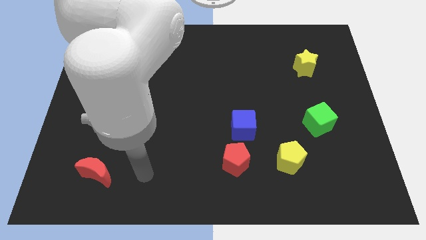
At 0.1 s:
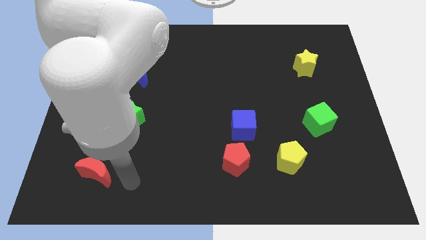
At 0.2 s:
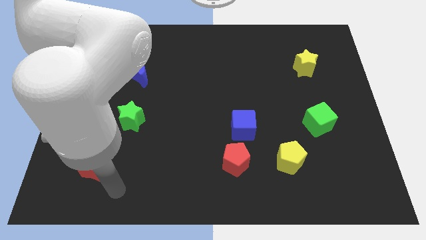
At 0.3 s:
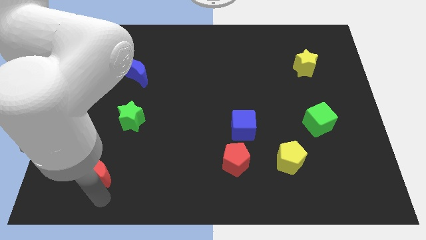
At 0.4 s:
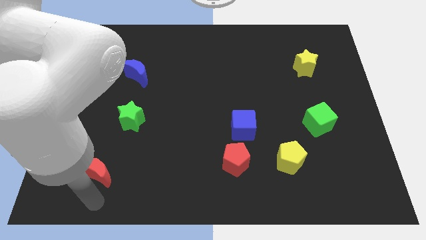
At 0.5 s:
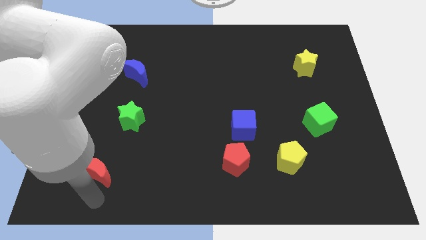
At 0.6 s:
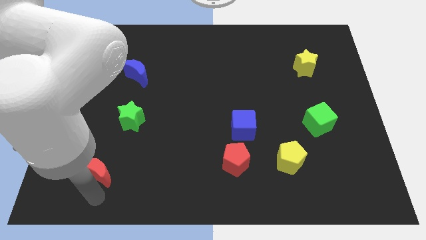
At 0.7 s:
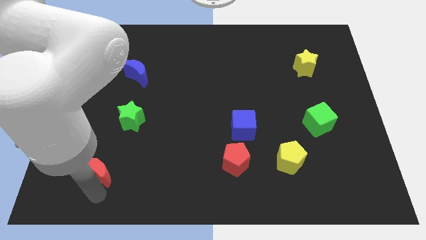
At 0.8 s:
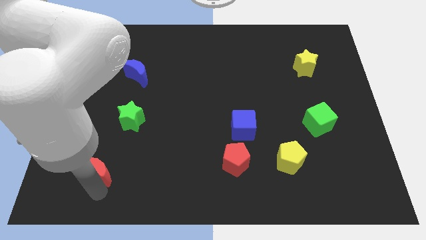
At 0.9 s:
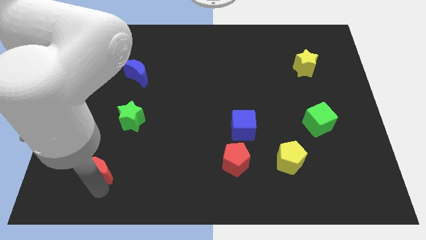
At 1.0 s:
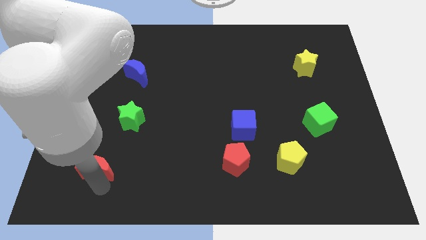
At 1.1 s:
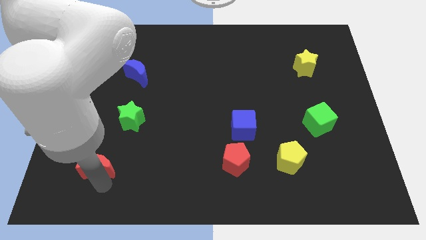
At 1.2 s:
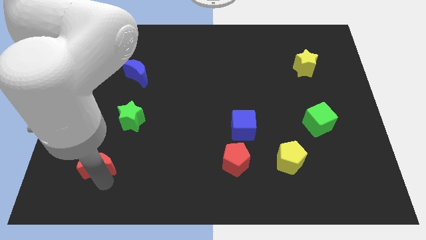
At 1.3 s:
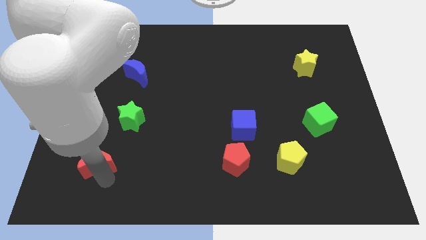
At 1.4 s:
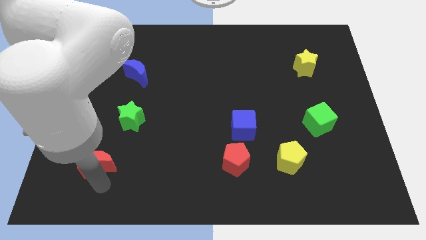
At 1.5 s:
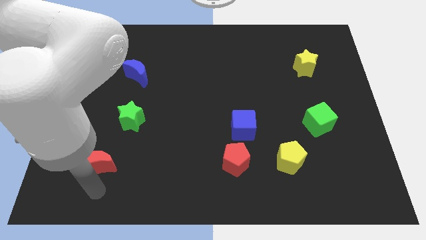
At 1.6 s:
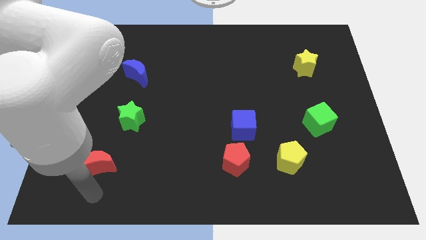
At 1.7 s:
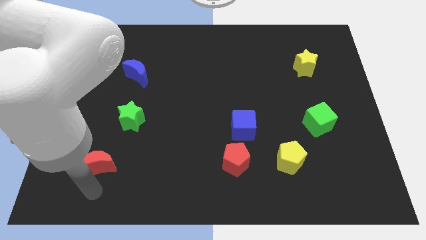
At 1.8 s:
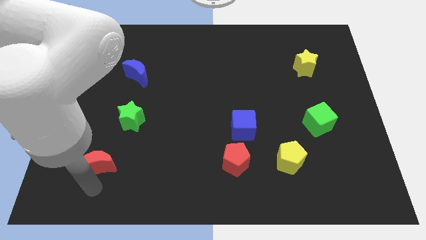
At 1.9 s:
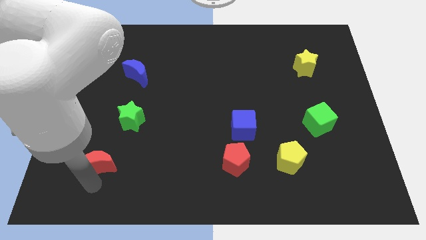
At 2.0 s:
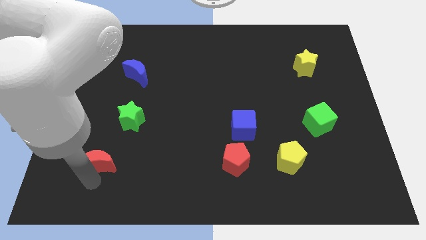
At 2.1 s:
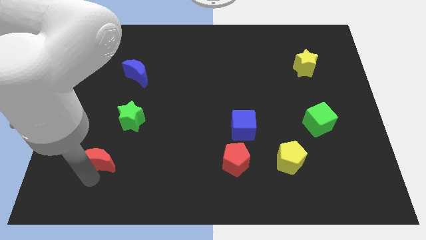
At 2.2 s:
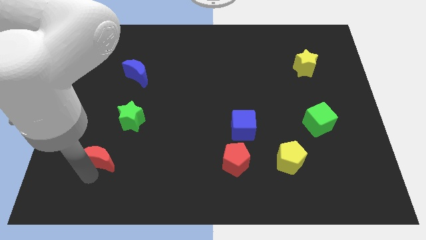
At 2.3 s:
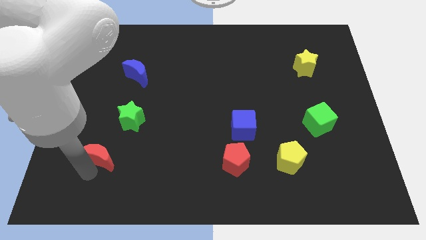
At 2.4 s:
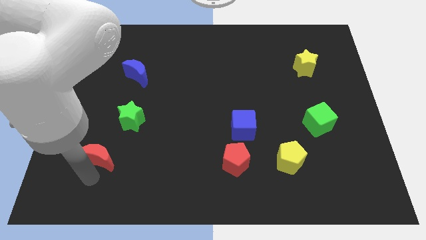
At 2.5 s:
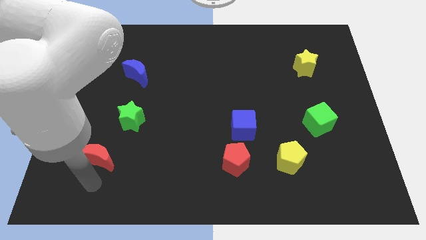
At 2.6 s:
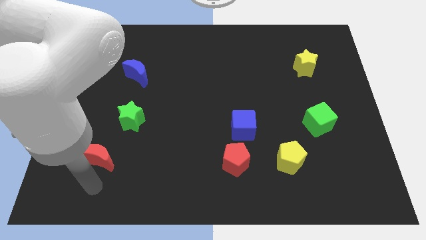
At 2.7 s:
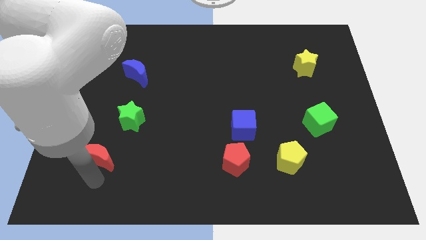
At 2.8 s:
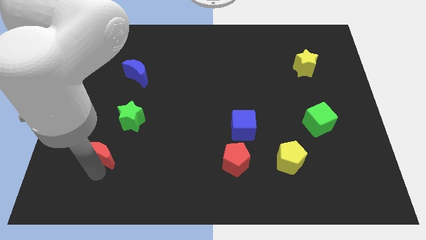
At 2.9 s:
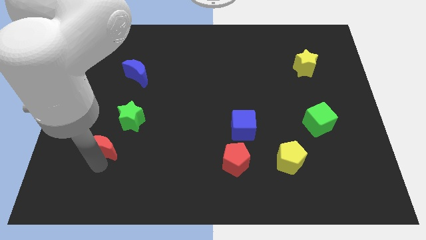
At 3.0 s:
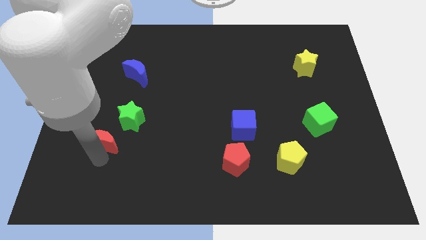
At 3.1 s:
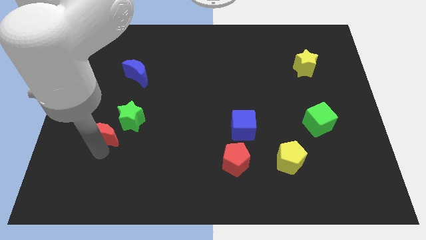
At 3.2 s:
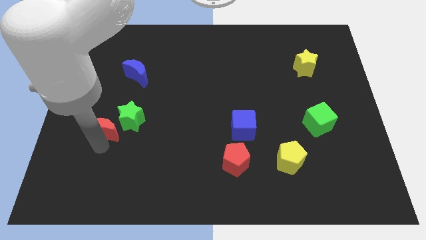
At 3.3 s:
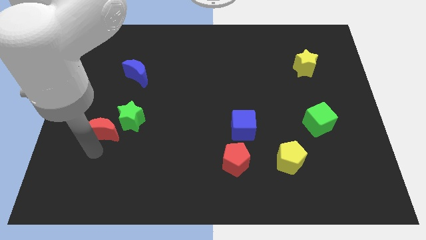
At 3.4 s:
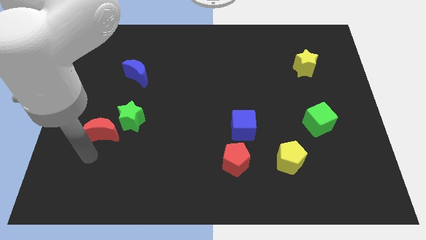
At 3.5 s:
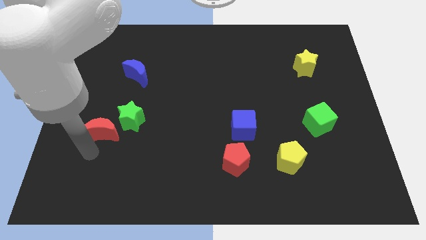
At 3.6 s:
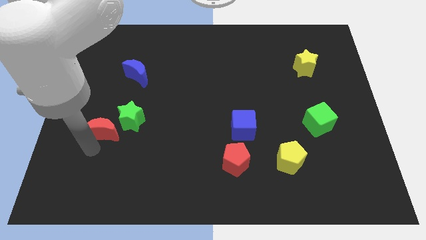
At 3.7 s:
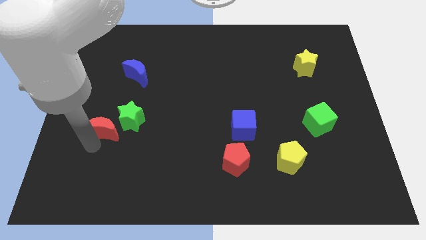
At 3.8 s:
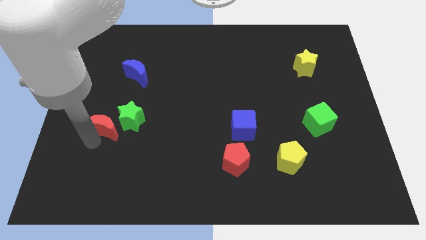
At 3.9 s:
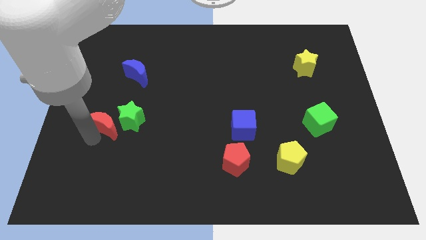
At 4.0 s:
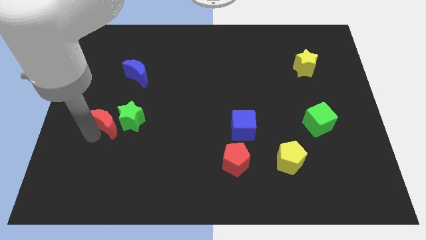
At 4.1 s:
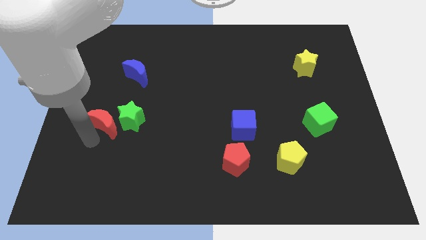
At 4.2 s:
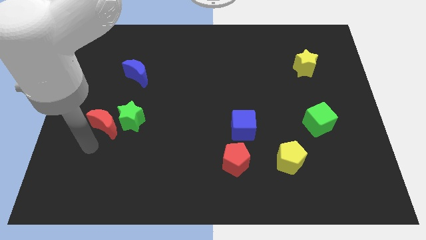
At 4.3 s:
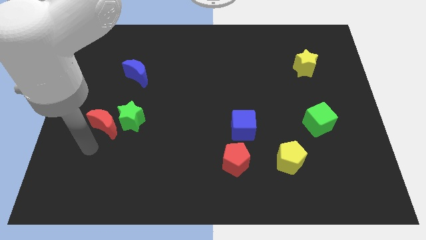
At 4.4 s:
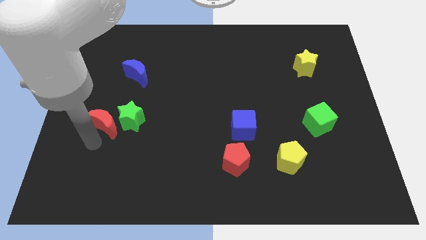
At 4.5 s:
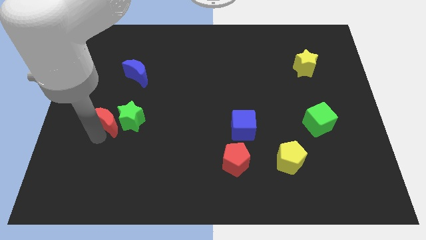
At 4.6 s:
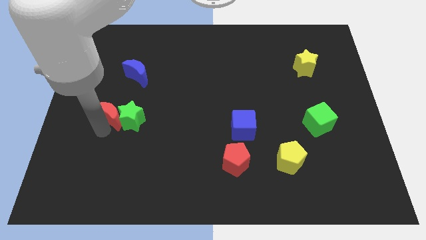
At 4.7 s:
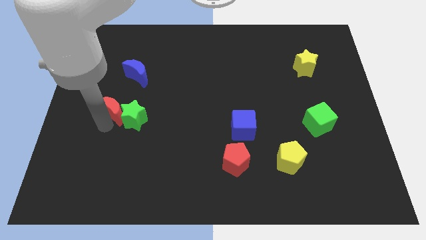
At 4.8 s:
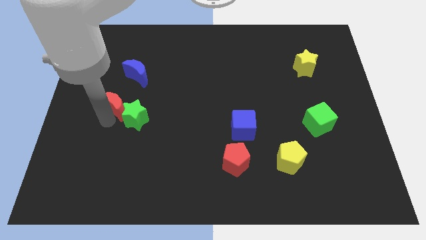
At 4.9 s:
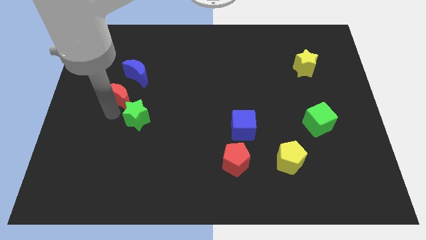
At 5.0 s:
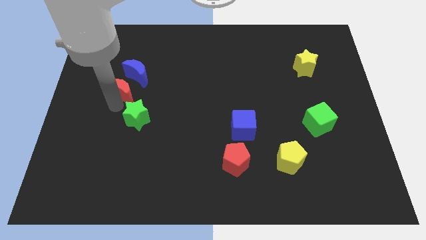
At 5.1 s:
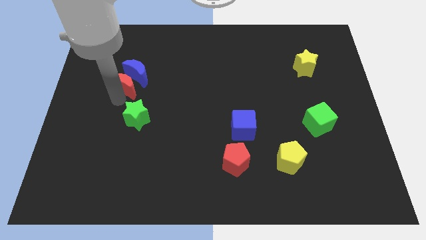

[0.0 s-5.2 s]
move the red moon close to the blue moon

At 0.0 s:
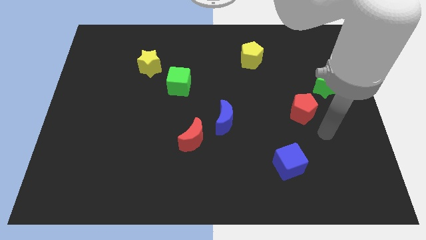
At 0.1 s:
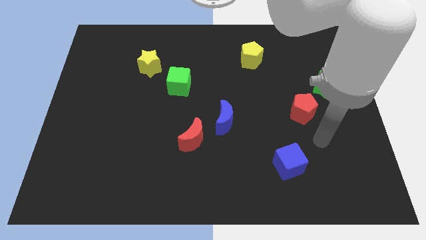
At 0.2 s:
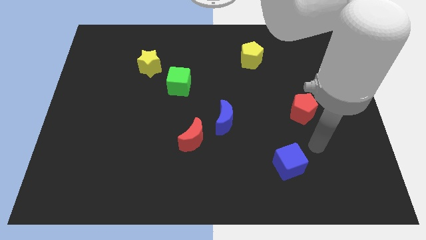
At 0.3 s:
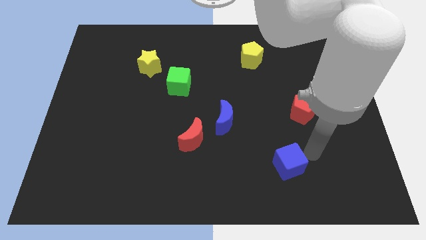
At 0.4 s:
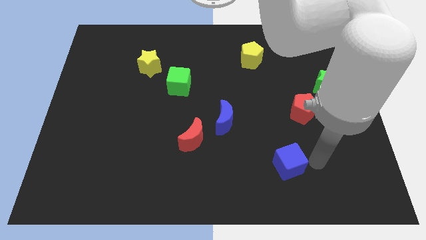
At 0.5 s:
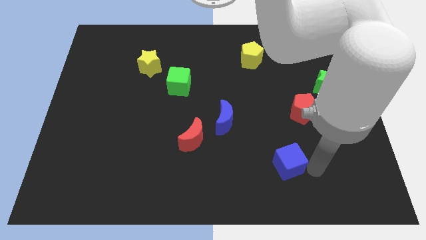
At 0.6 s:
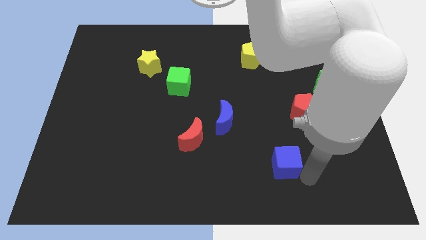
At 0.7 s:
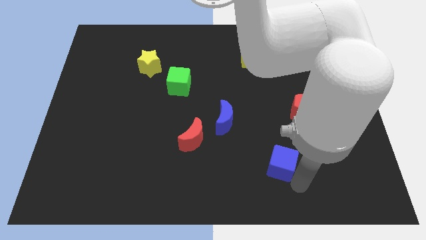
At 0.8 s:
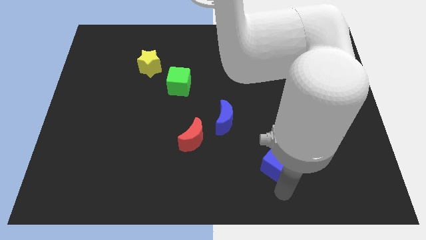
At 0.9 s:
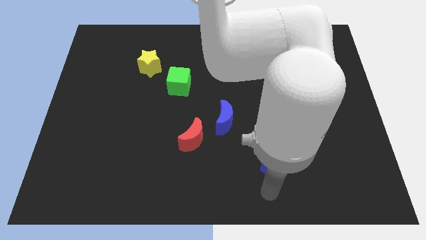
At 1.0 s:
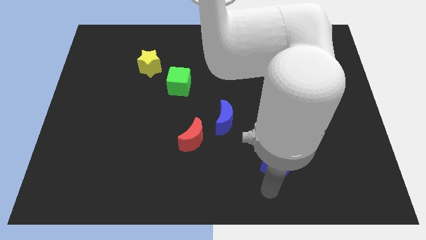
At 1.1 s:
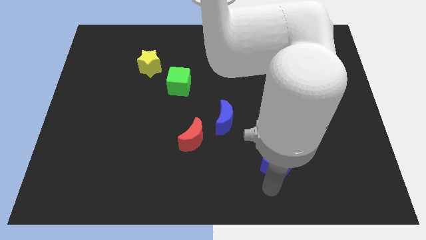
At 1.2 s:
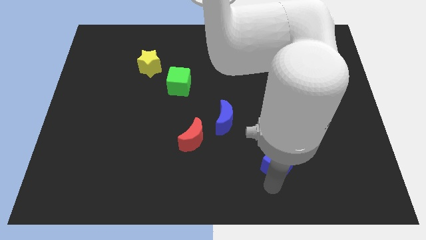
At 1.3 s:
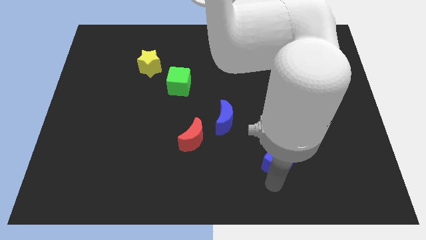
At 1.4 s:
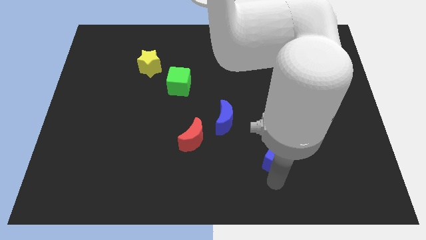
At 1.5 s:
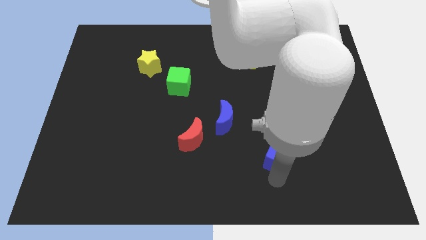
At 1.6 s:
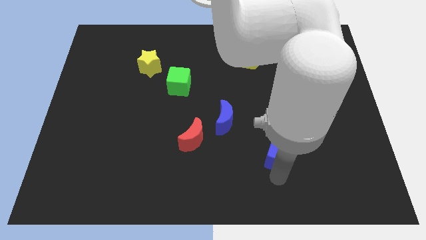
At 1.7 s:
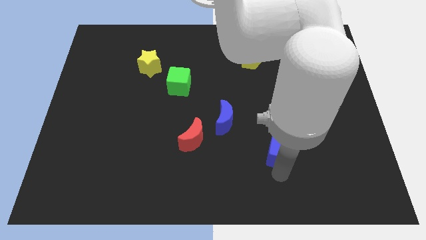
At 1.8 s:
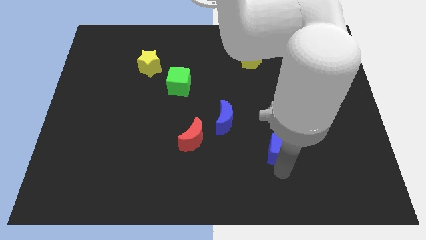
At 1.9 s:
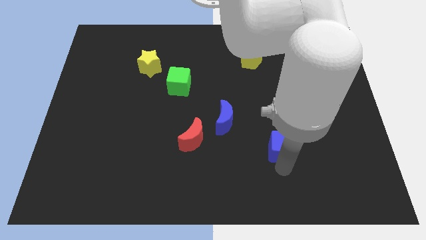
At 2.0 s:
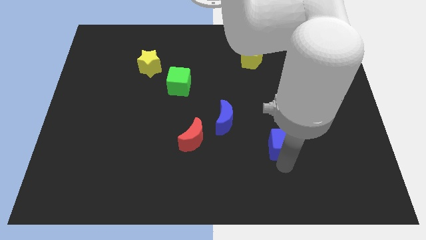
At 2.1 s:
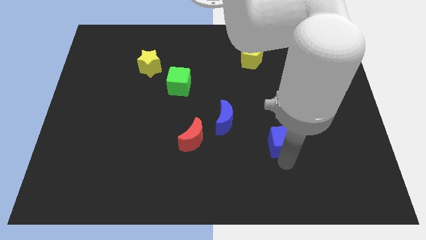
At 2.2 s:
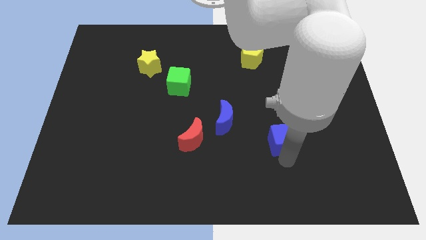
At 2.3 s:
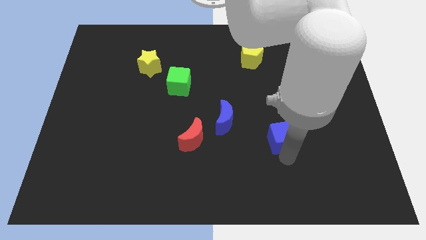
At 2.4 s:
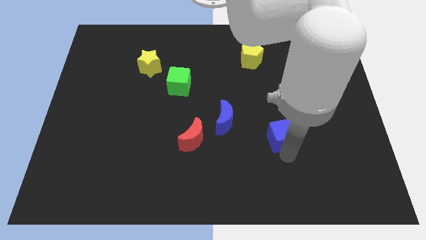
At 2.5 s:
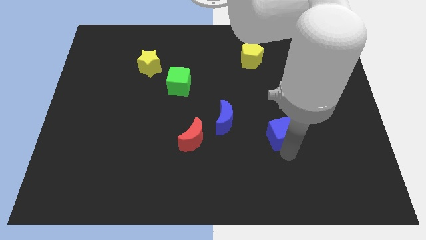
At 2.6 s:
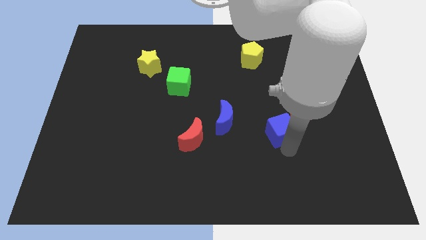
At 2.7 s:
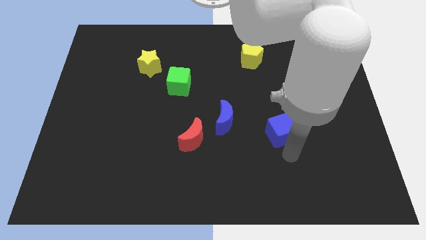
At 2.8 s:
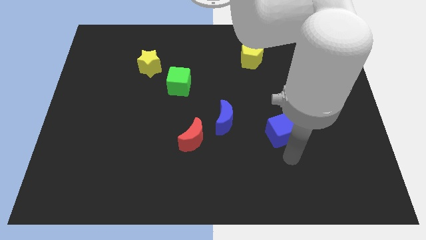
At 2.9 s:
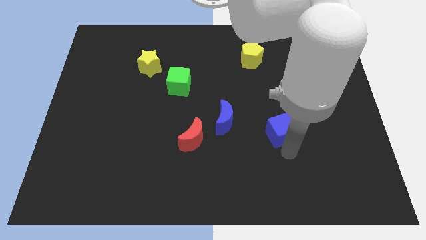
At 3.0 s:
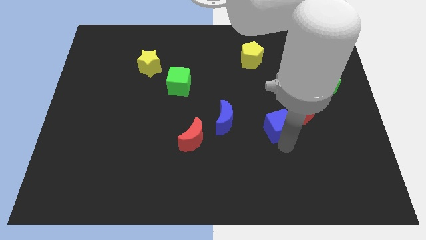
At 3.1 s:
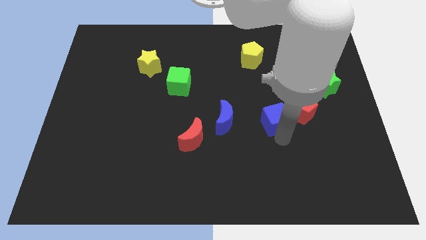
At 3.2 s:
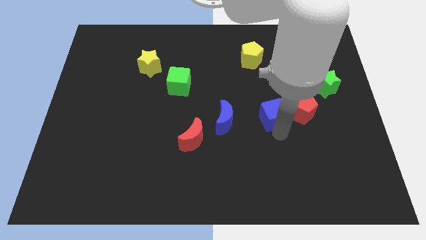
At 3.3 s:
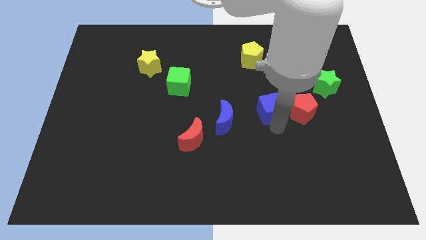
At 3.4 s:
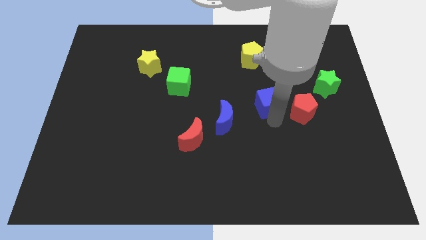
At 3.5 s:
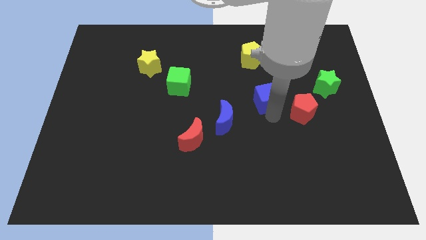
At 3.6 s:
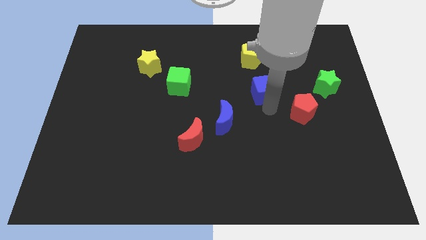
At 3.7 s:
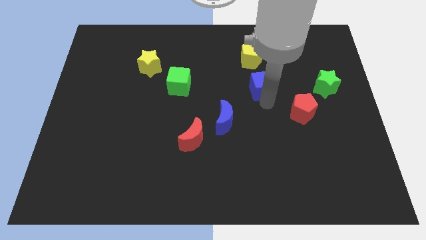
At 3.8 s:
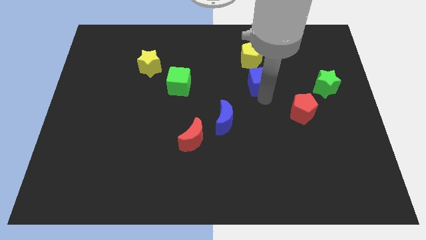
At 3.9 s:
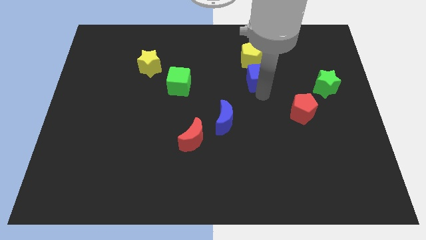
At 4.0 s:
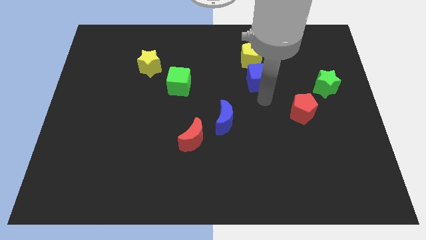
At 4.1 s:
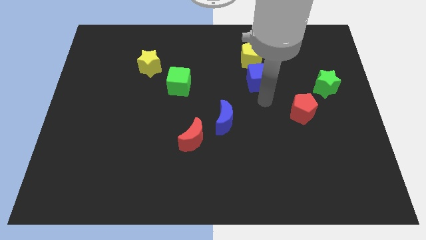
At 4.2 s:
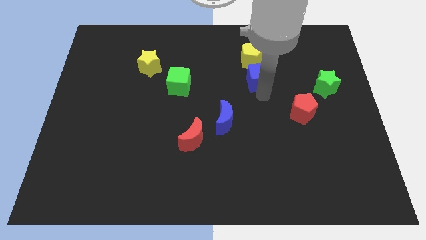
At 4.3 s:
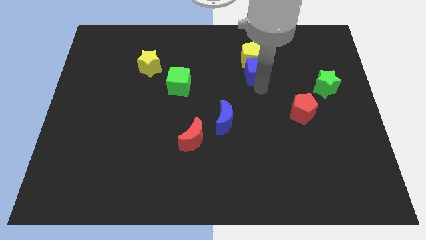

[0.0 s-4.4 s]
put the blue cube to the yellow pentagon
